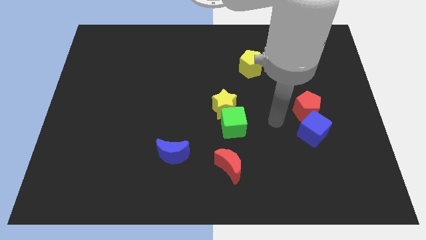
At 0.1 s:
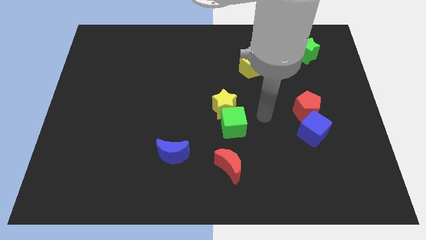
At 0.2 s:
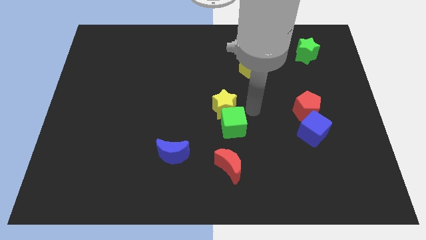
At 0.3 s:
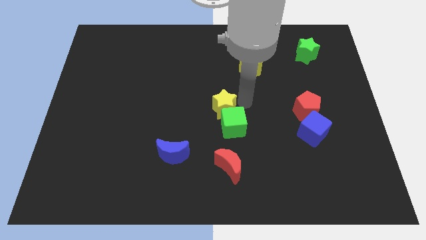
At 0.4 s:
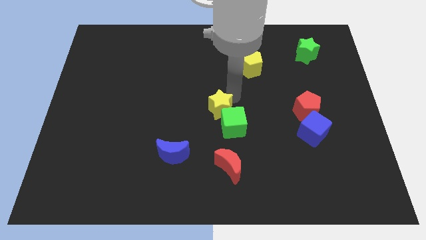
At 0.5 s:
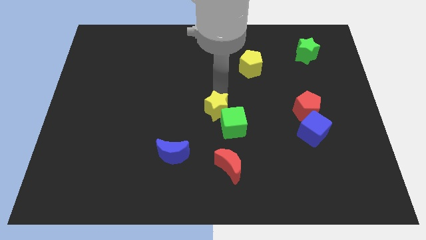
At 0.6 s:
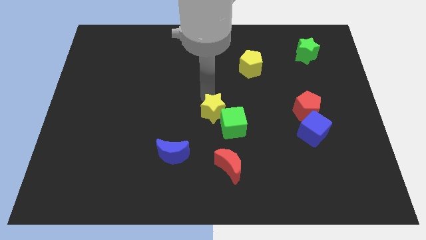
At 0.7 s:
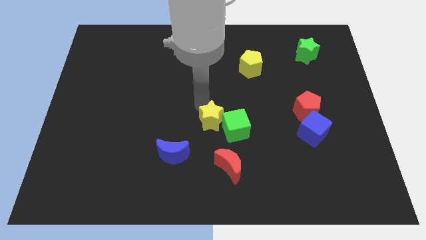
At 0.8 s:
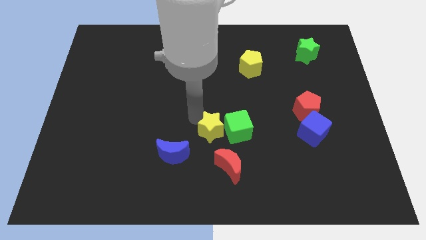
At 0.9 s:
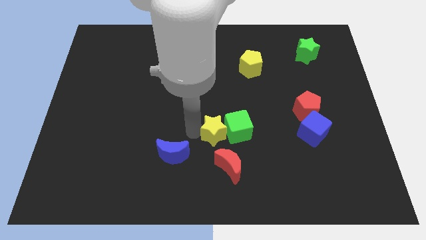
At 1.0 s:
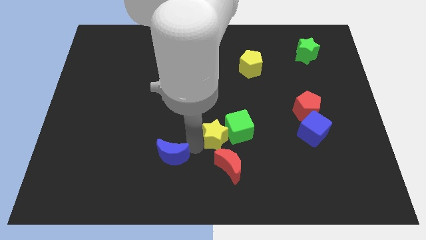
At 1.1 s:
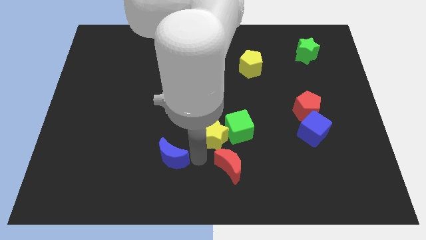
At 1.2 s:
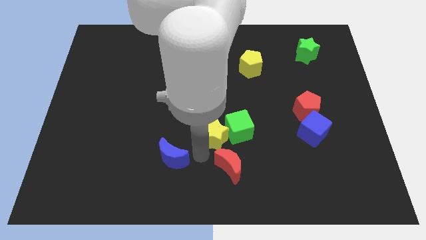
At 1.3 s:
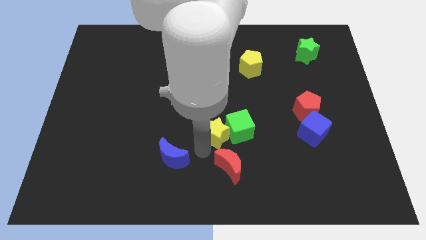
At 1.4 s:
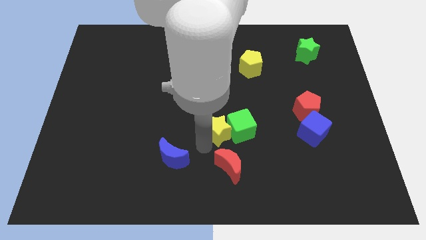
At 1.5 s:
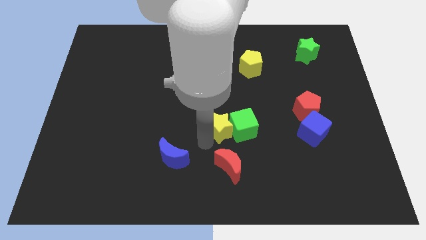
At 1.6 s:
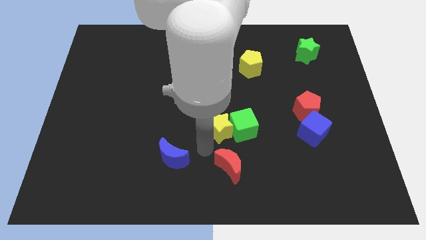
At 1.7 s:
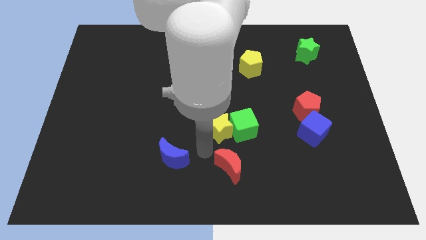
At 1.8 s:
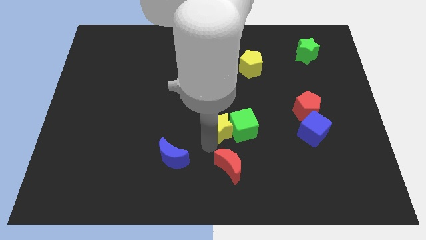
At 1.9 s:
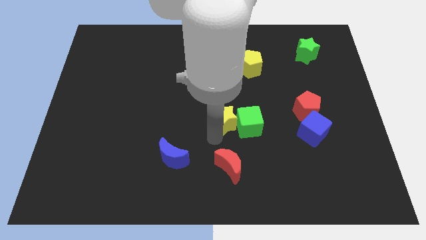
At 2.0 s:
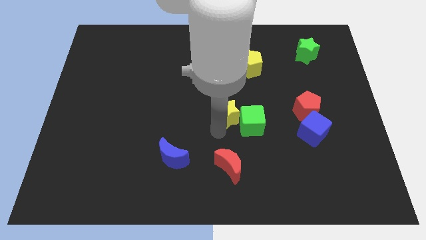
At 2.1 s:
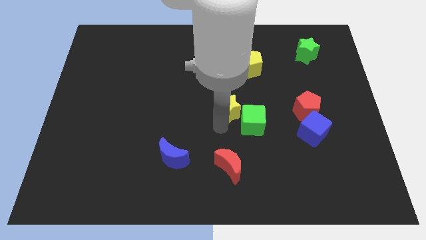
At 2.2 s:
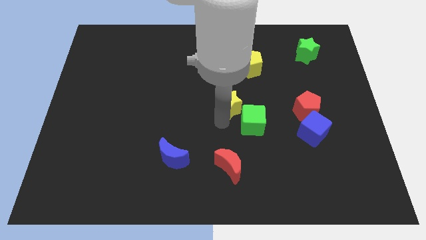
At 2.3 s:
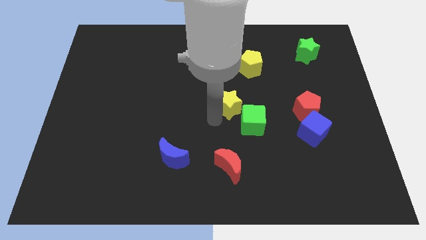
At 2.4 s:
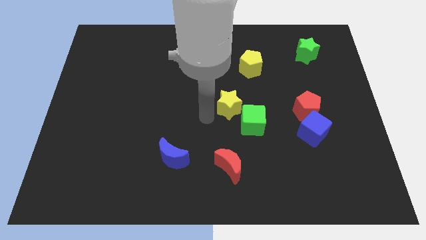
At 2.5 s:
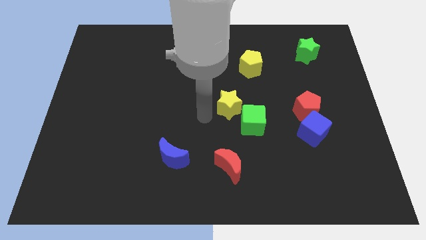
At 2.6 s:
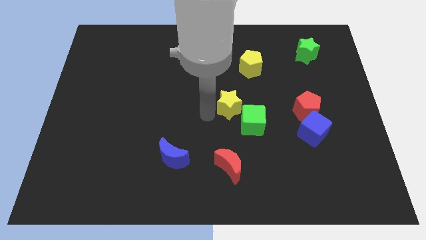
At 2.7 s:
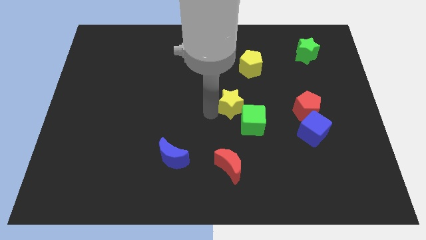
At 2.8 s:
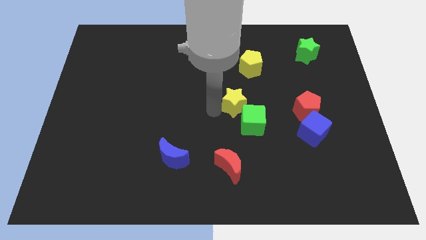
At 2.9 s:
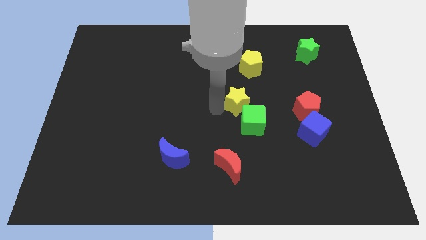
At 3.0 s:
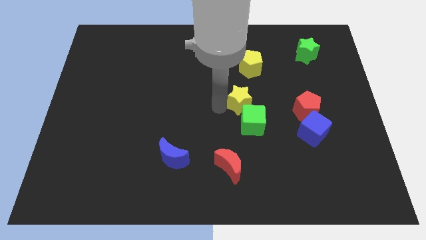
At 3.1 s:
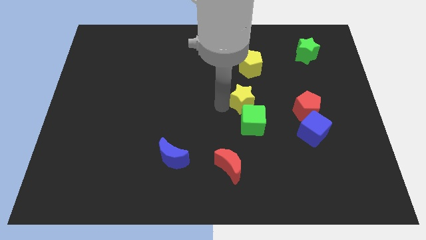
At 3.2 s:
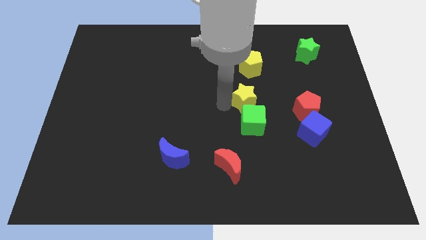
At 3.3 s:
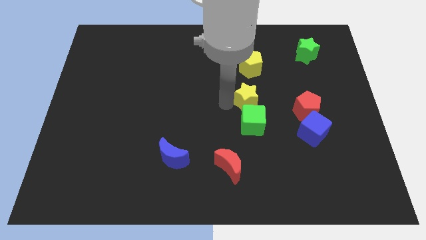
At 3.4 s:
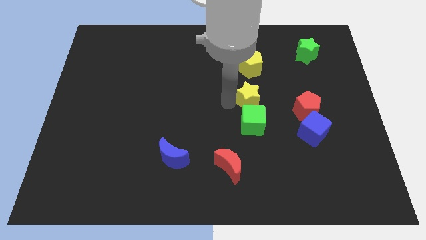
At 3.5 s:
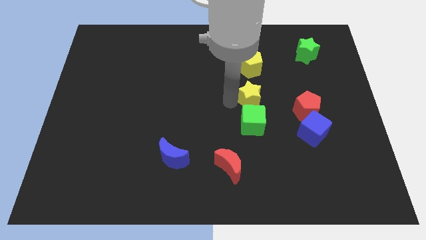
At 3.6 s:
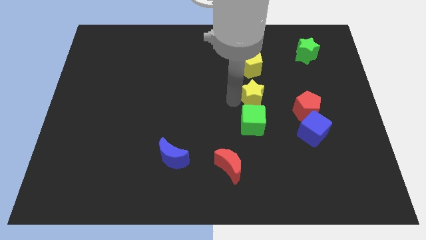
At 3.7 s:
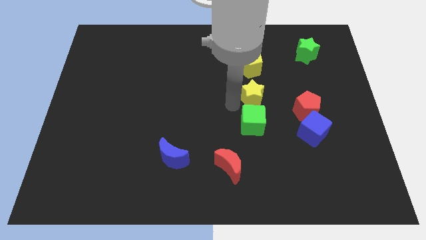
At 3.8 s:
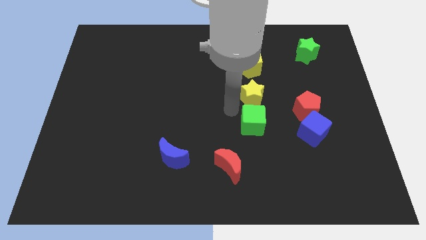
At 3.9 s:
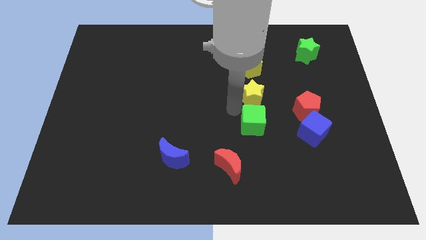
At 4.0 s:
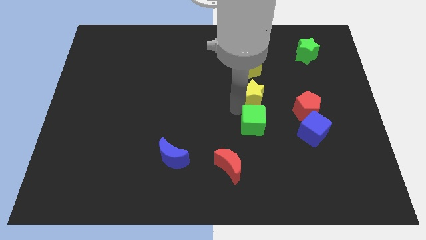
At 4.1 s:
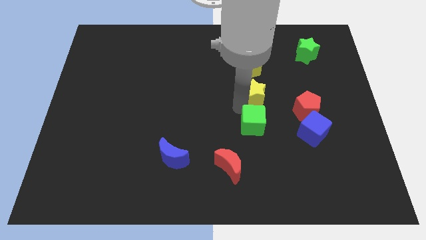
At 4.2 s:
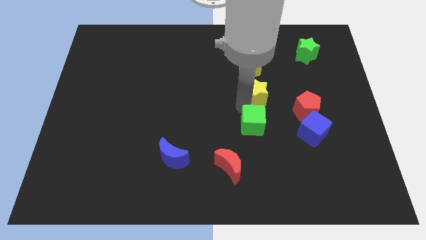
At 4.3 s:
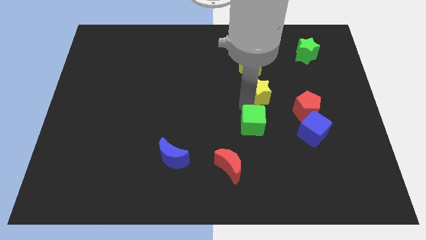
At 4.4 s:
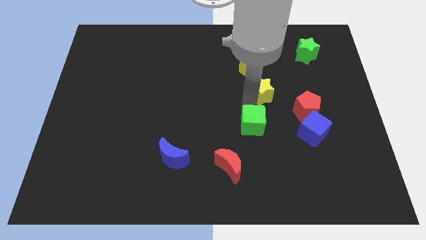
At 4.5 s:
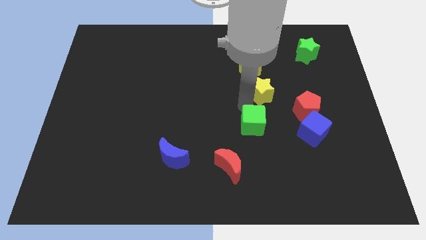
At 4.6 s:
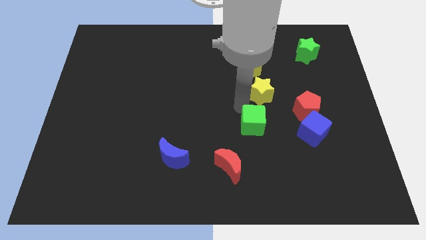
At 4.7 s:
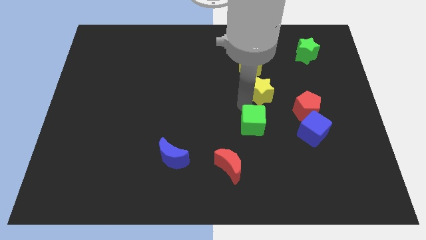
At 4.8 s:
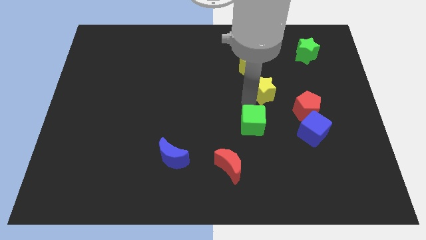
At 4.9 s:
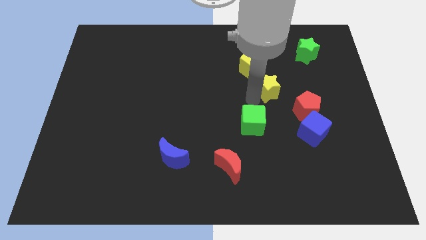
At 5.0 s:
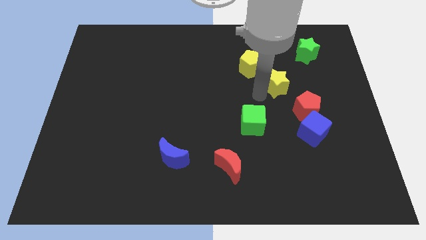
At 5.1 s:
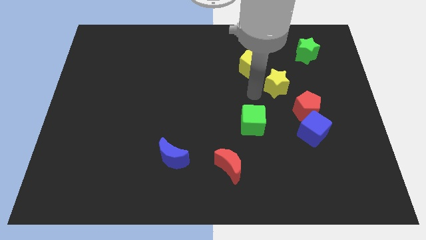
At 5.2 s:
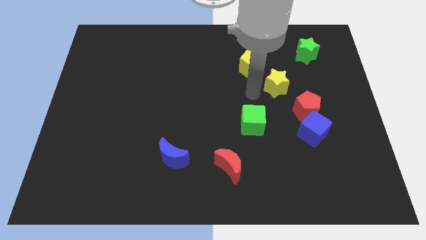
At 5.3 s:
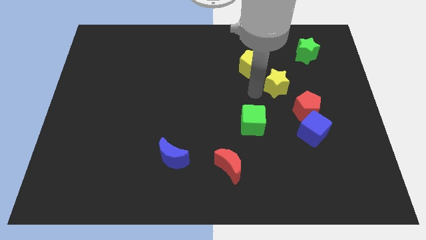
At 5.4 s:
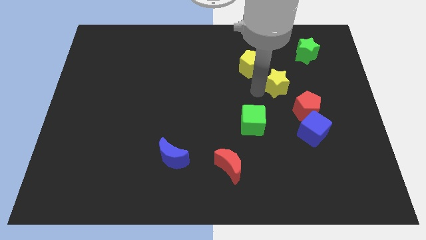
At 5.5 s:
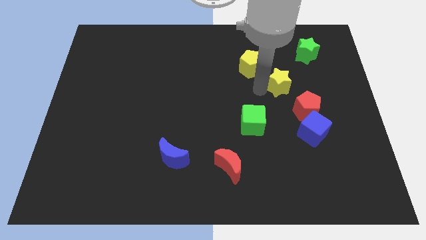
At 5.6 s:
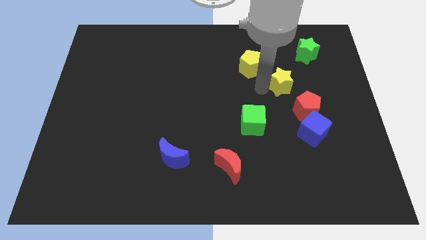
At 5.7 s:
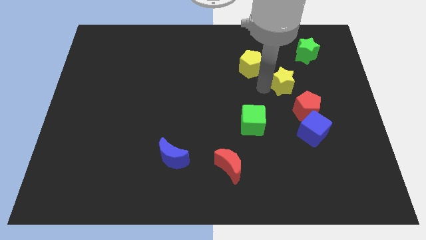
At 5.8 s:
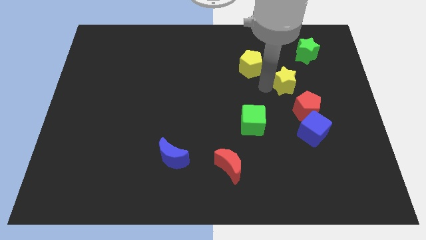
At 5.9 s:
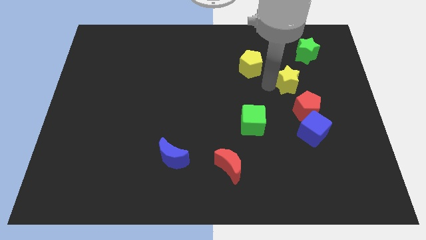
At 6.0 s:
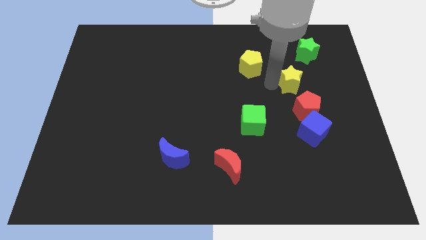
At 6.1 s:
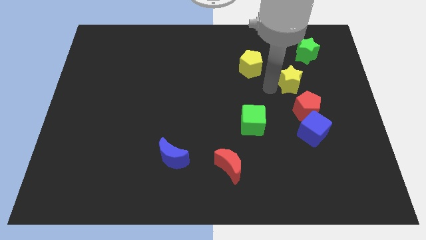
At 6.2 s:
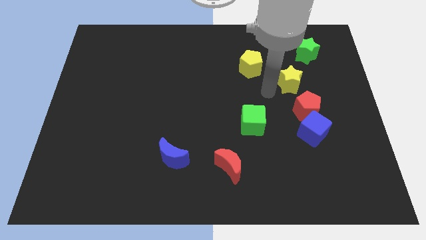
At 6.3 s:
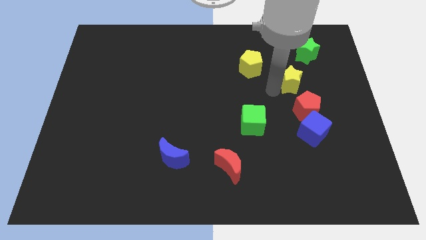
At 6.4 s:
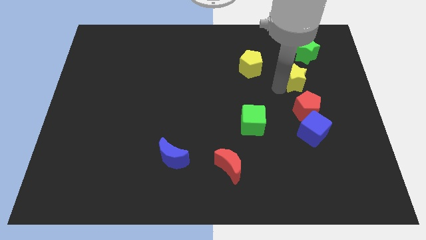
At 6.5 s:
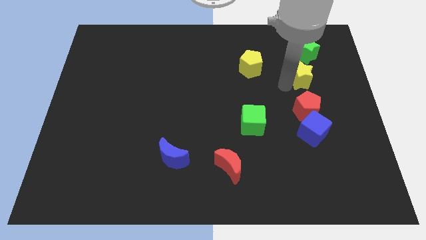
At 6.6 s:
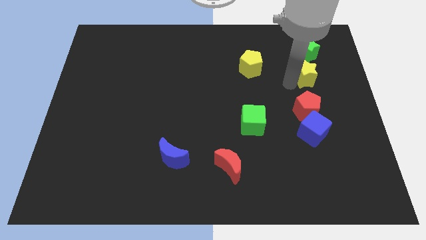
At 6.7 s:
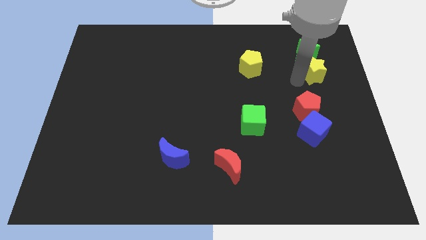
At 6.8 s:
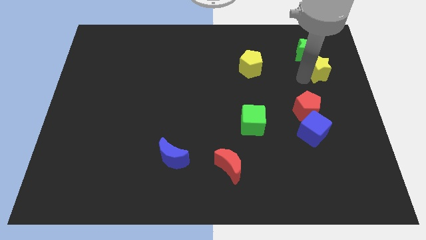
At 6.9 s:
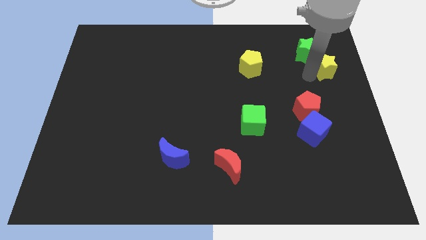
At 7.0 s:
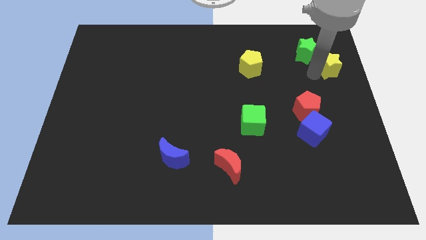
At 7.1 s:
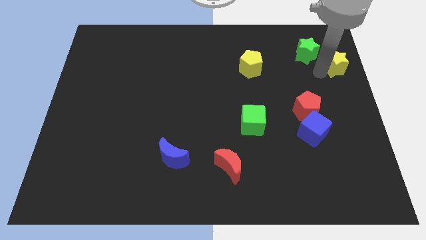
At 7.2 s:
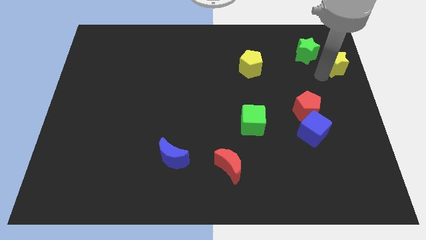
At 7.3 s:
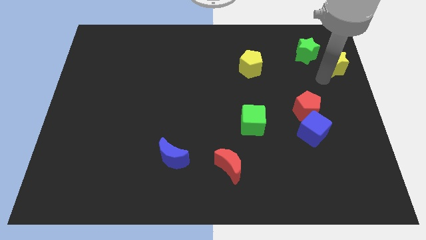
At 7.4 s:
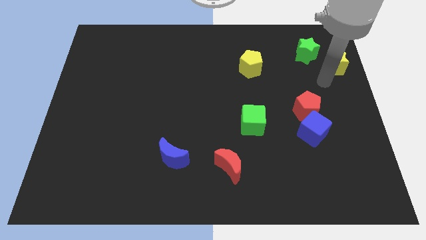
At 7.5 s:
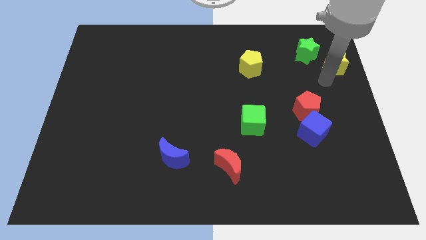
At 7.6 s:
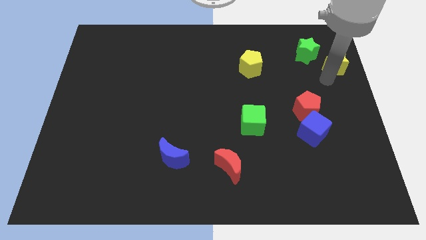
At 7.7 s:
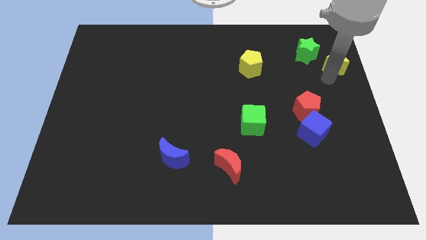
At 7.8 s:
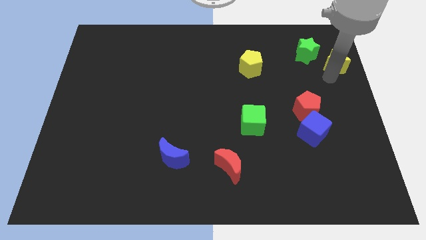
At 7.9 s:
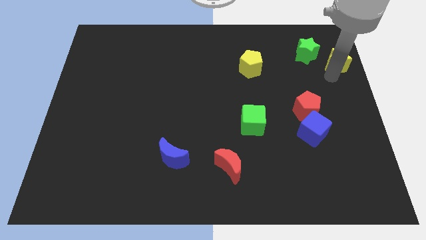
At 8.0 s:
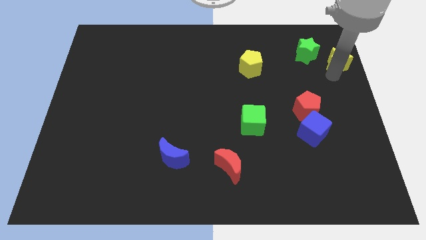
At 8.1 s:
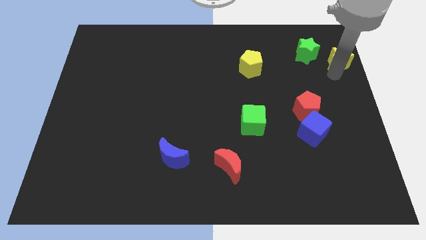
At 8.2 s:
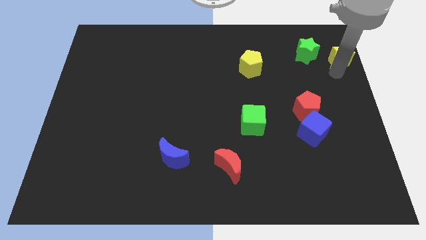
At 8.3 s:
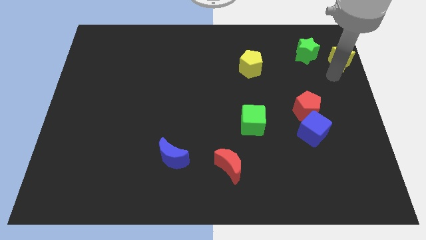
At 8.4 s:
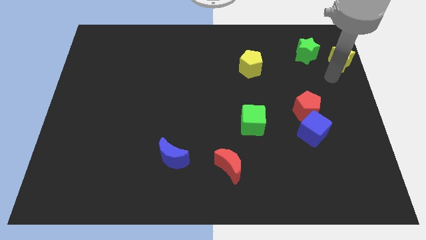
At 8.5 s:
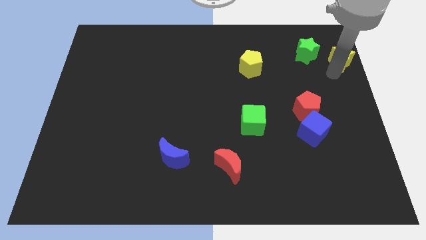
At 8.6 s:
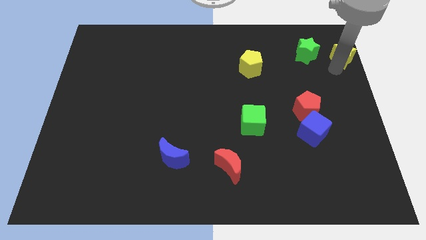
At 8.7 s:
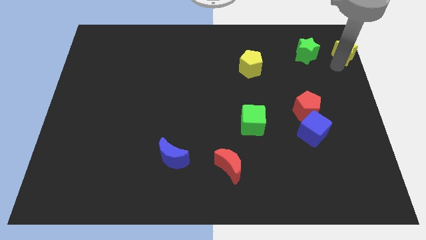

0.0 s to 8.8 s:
move the yellow star to the top right
